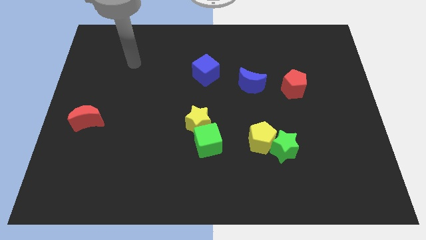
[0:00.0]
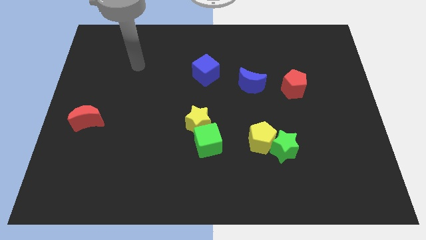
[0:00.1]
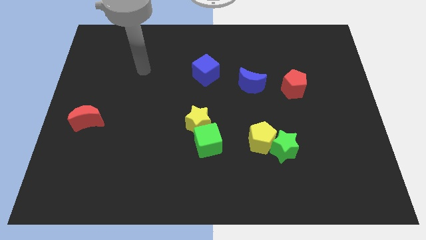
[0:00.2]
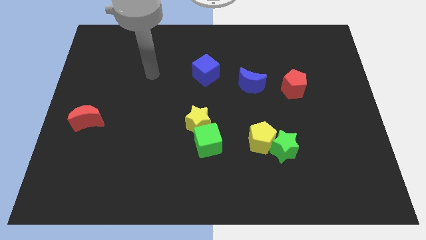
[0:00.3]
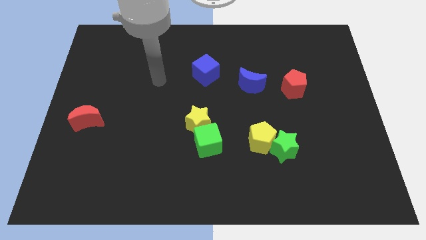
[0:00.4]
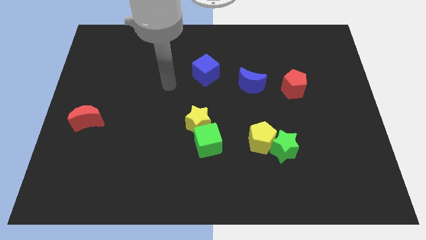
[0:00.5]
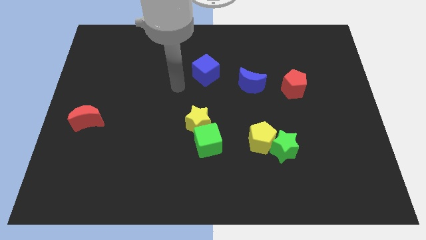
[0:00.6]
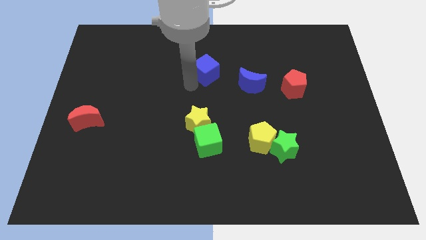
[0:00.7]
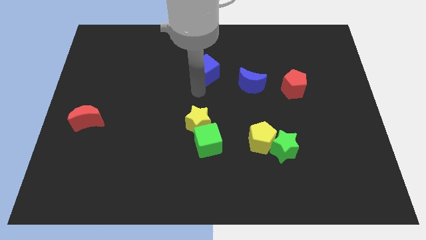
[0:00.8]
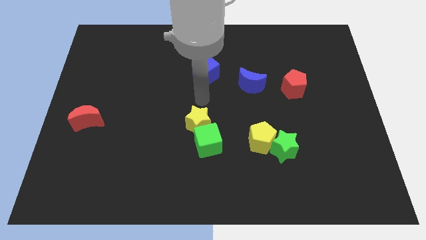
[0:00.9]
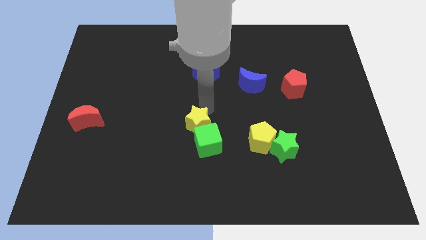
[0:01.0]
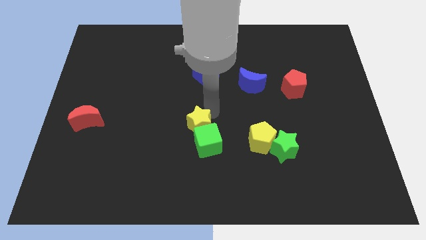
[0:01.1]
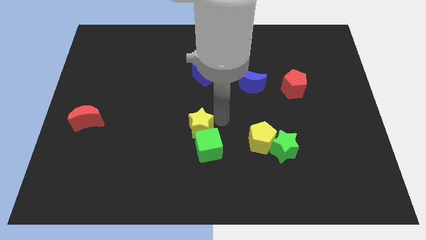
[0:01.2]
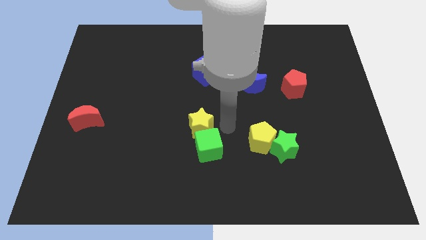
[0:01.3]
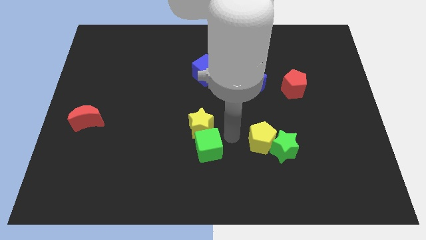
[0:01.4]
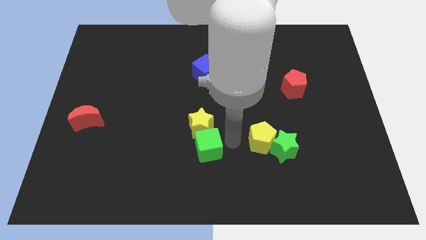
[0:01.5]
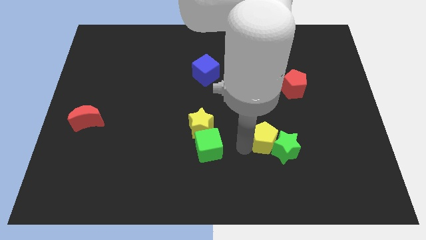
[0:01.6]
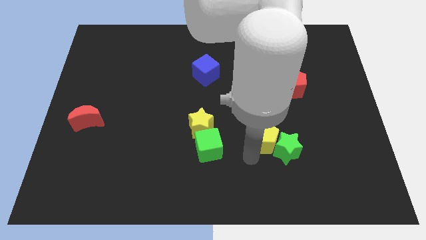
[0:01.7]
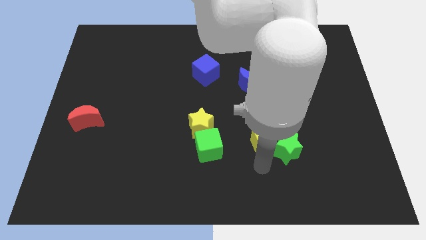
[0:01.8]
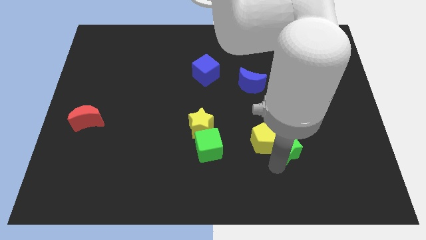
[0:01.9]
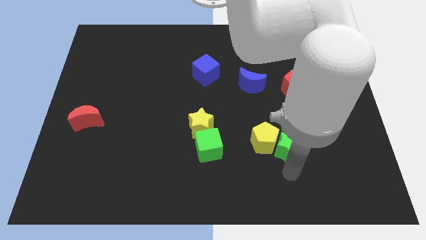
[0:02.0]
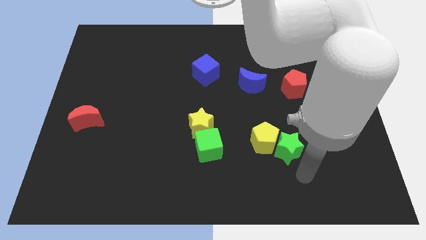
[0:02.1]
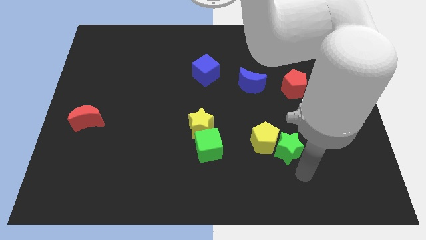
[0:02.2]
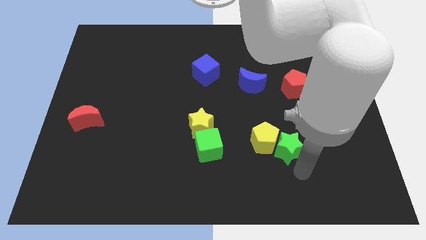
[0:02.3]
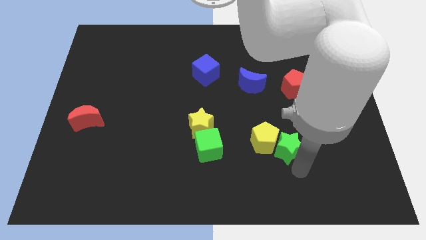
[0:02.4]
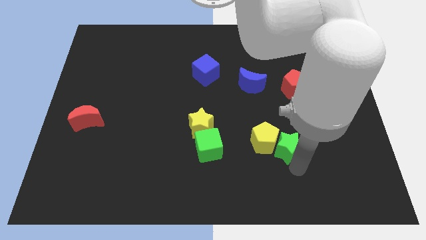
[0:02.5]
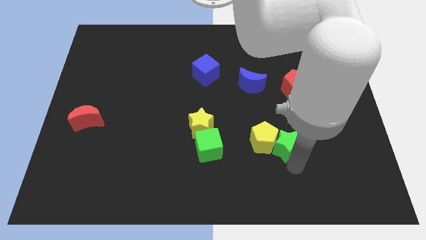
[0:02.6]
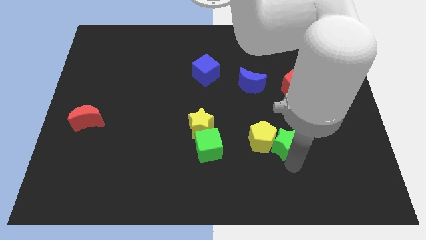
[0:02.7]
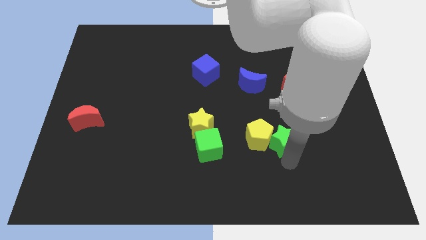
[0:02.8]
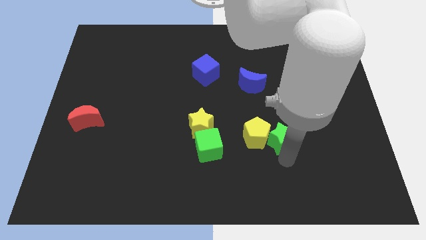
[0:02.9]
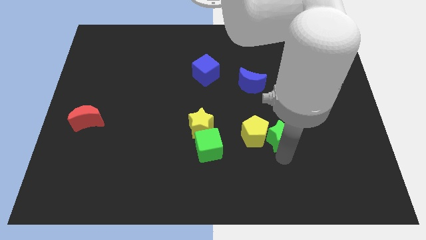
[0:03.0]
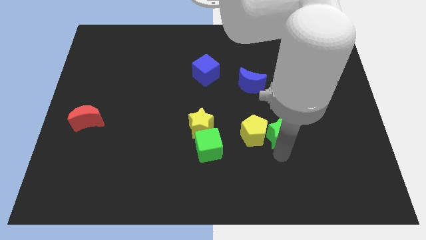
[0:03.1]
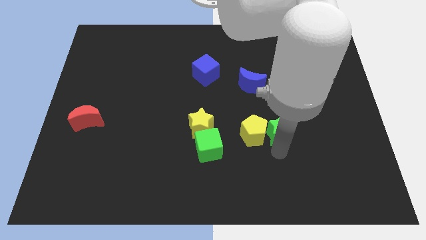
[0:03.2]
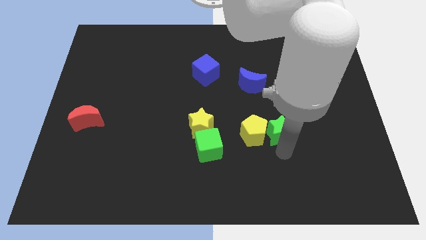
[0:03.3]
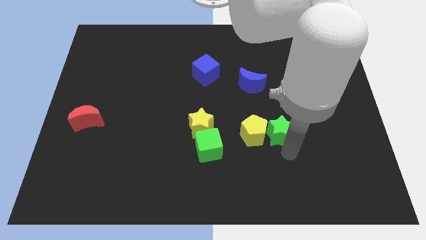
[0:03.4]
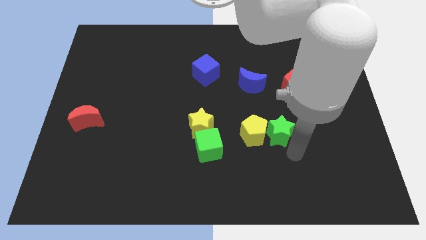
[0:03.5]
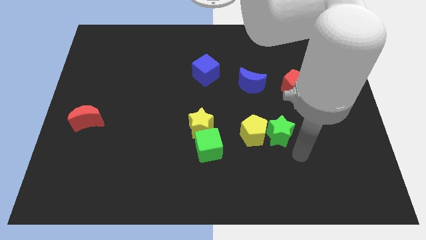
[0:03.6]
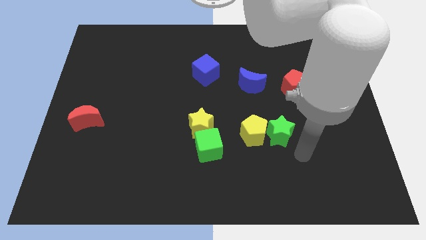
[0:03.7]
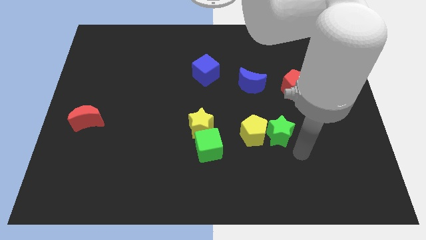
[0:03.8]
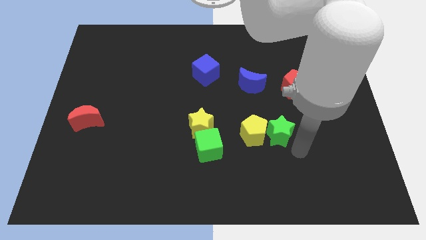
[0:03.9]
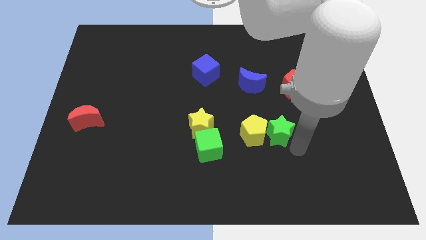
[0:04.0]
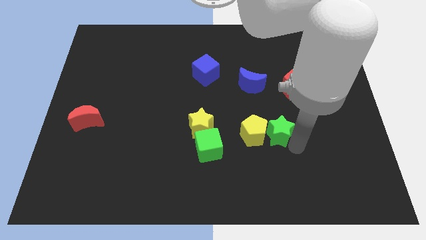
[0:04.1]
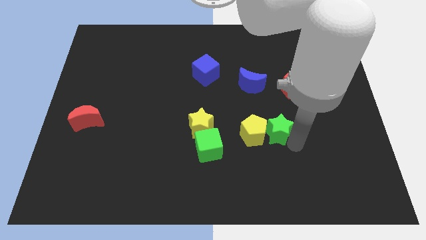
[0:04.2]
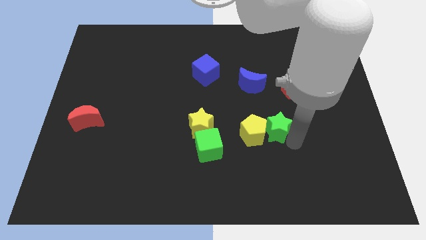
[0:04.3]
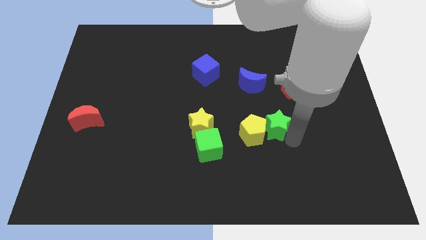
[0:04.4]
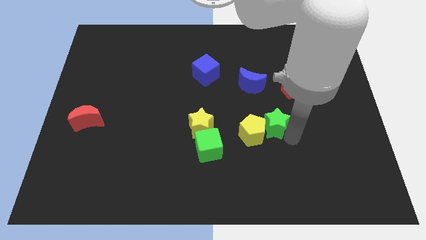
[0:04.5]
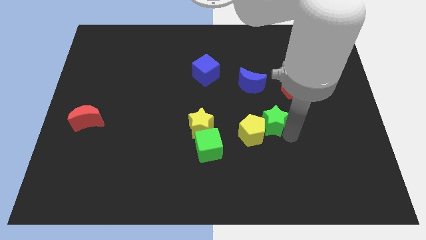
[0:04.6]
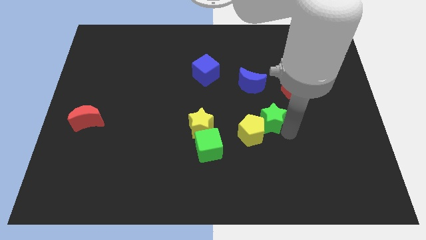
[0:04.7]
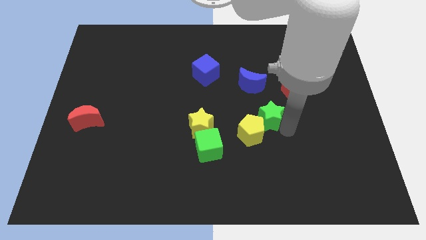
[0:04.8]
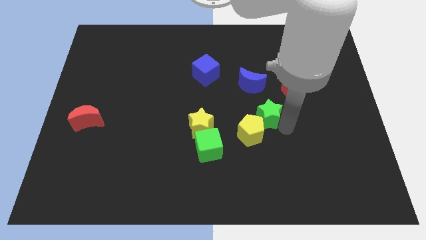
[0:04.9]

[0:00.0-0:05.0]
push the green star slightly upwards and to the left

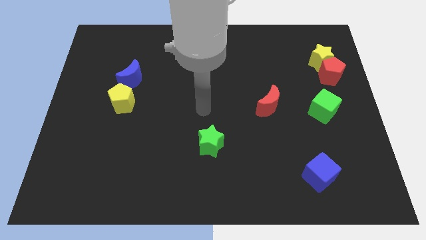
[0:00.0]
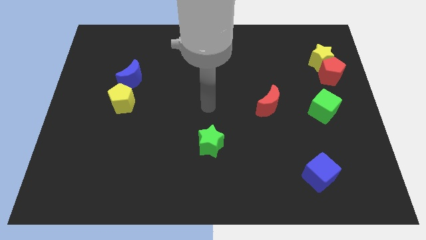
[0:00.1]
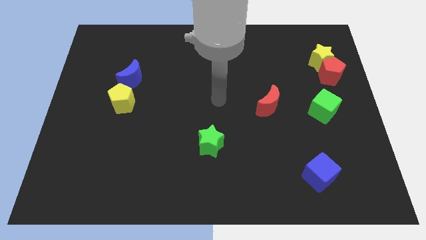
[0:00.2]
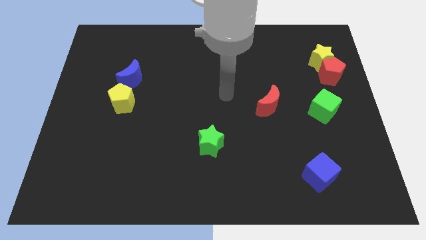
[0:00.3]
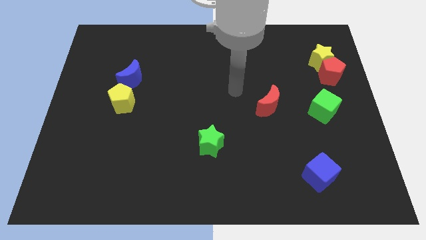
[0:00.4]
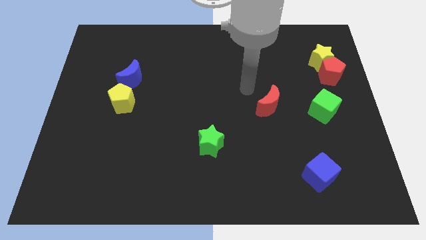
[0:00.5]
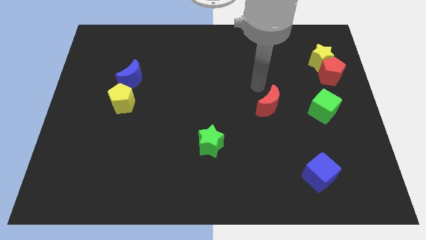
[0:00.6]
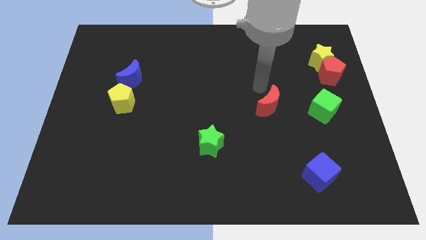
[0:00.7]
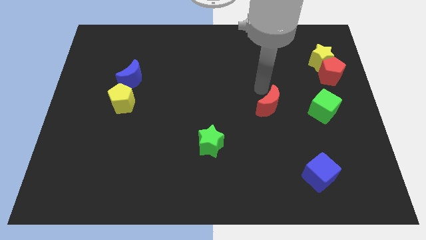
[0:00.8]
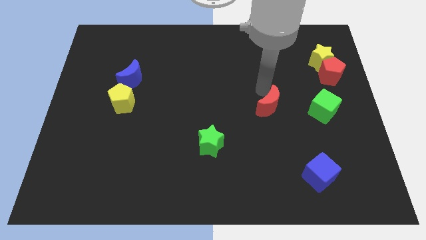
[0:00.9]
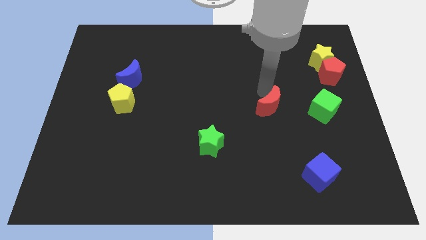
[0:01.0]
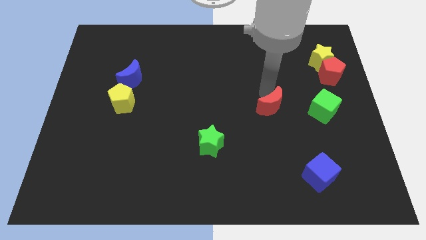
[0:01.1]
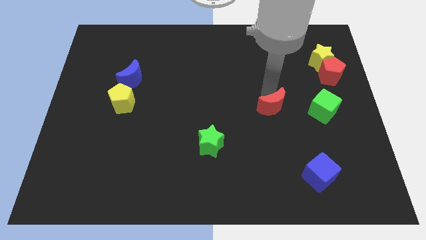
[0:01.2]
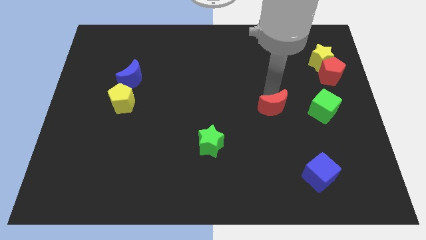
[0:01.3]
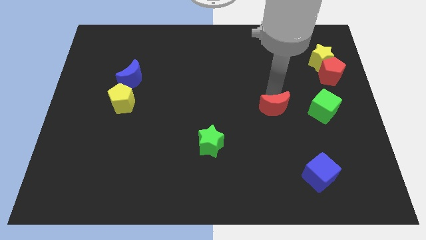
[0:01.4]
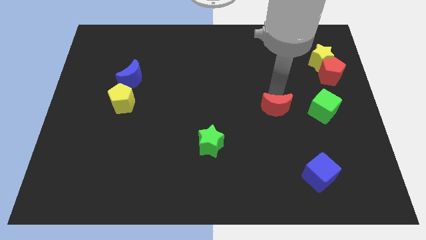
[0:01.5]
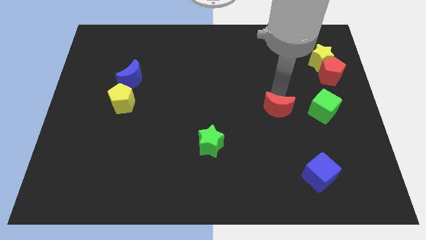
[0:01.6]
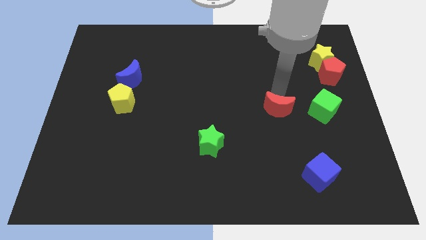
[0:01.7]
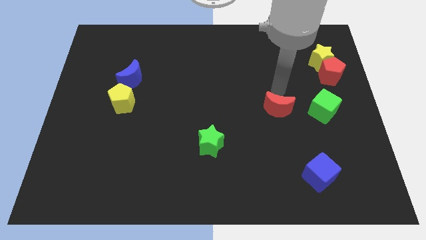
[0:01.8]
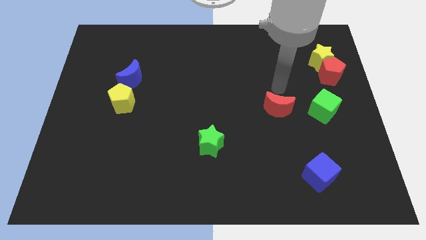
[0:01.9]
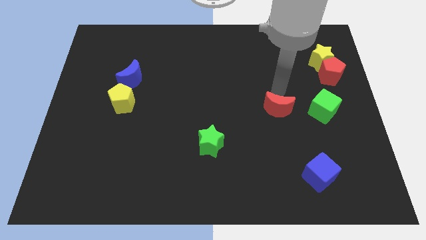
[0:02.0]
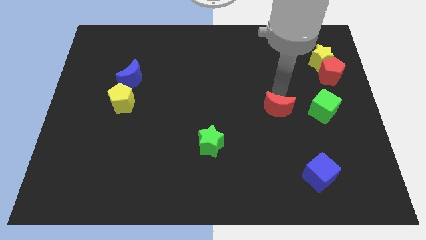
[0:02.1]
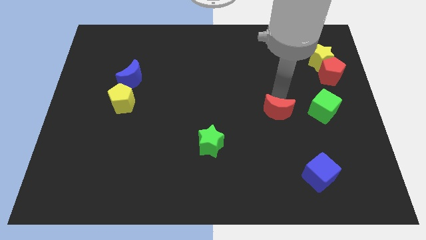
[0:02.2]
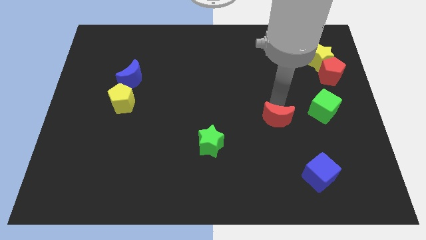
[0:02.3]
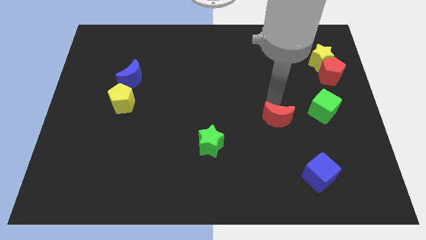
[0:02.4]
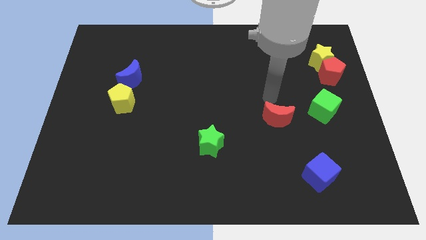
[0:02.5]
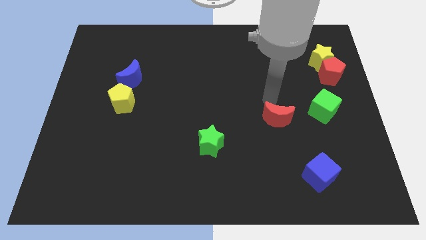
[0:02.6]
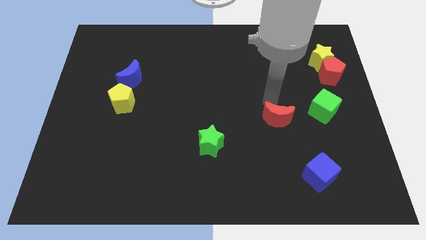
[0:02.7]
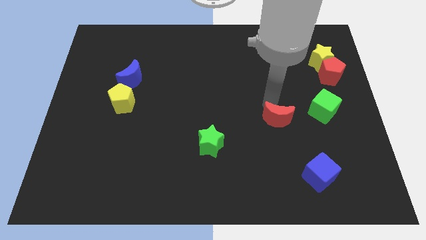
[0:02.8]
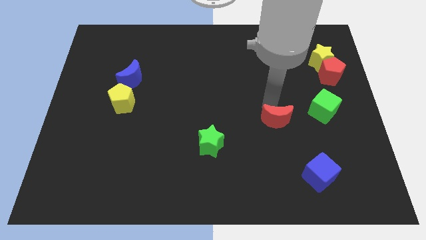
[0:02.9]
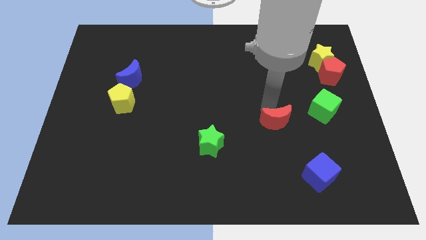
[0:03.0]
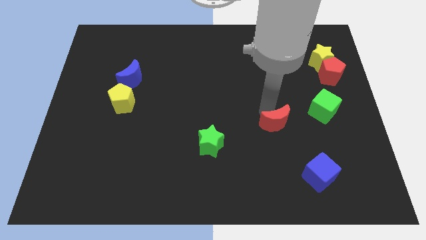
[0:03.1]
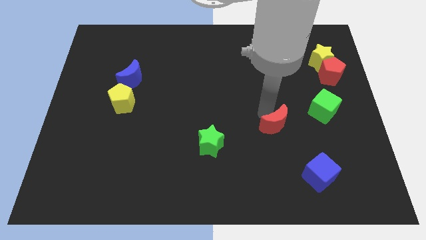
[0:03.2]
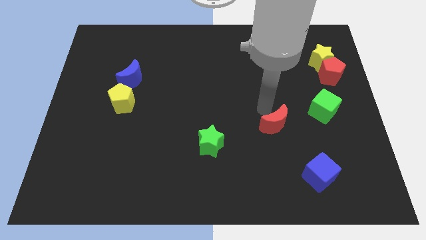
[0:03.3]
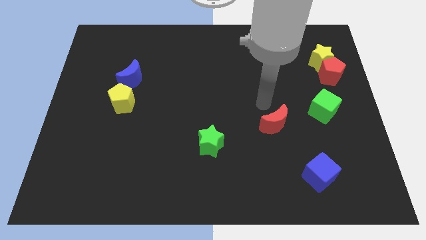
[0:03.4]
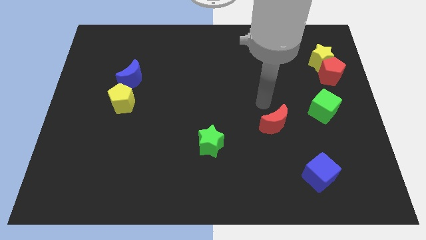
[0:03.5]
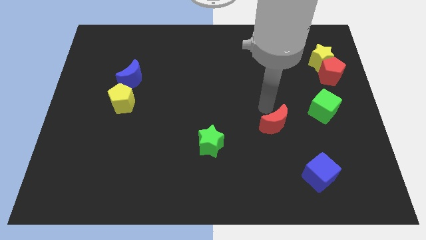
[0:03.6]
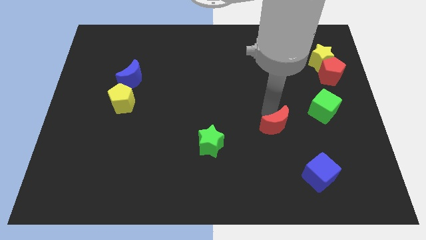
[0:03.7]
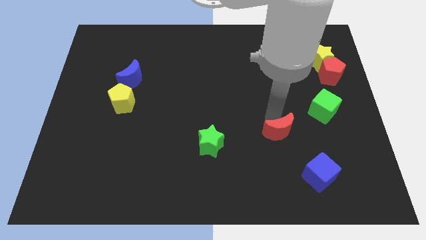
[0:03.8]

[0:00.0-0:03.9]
move the red moon slightly down
